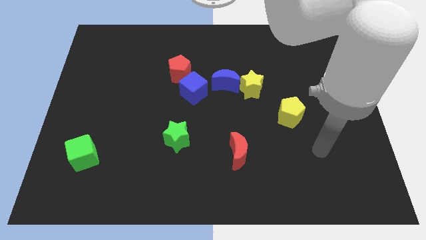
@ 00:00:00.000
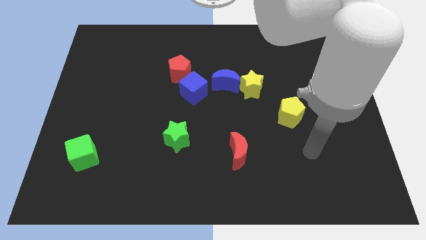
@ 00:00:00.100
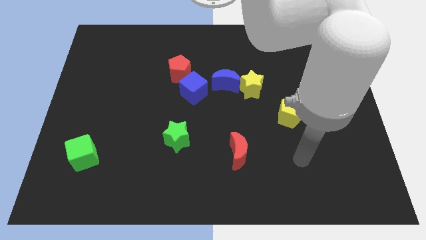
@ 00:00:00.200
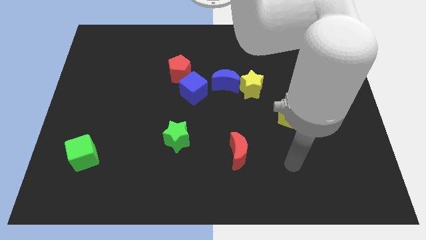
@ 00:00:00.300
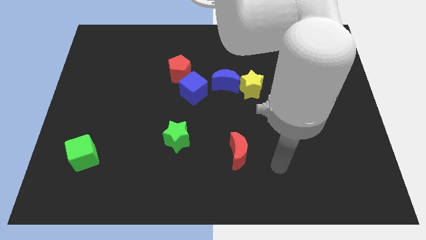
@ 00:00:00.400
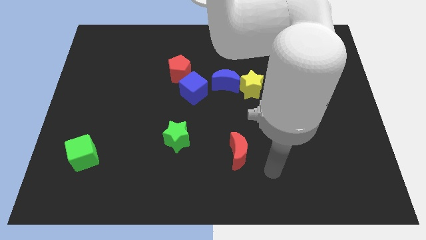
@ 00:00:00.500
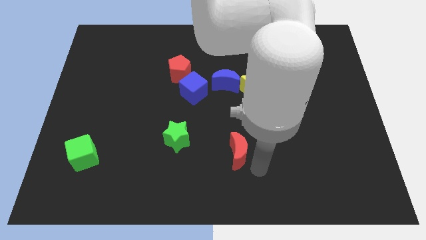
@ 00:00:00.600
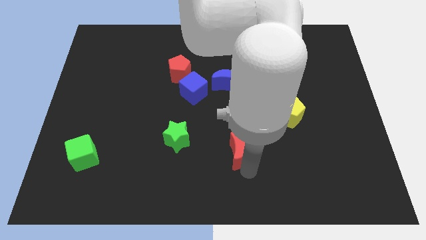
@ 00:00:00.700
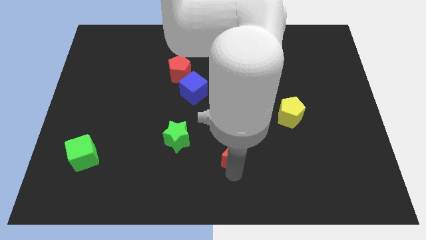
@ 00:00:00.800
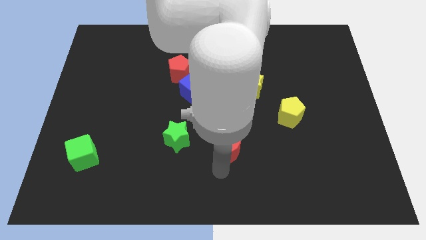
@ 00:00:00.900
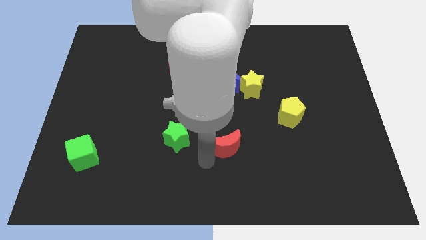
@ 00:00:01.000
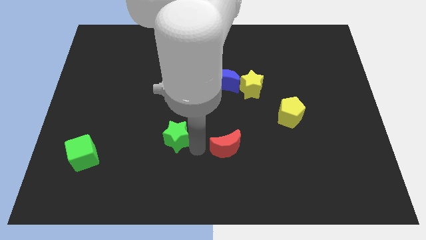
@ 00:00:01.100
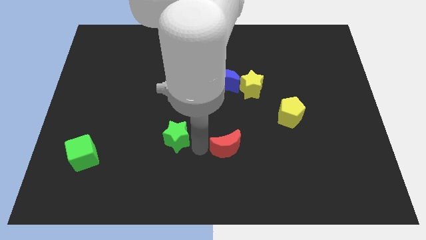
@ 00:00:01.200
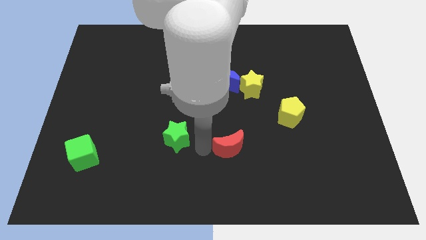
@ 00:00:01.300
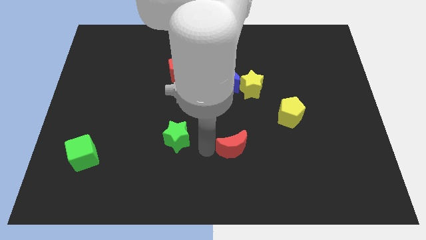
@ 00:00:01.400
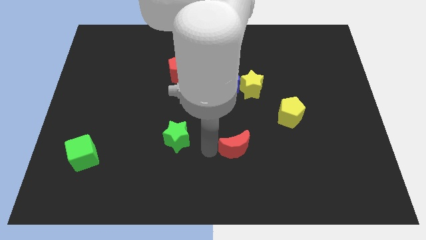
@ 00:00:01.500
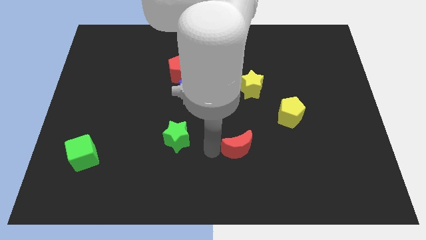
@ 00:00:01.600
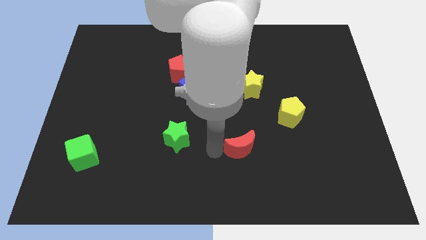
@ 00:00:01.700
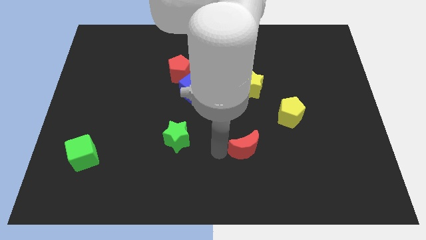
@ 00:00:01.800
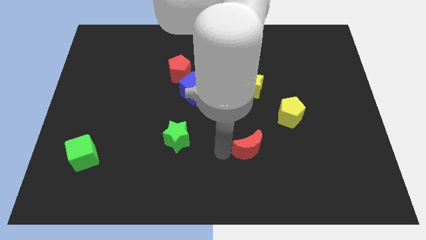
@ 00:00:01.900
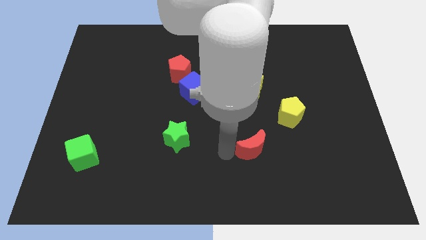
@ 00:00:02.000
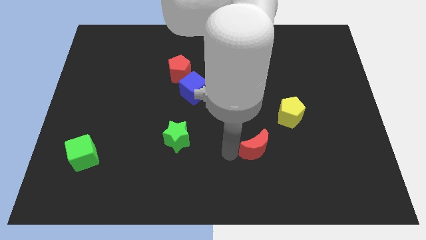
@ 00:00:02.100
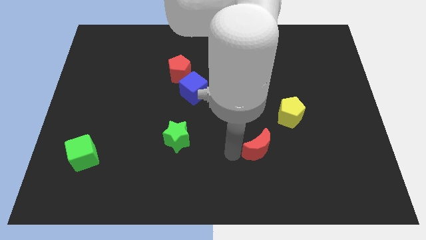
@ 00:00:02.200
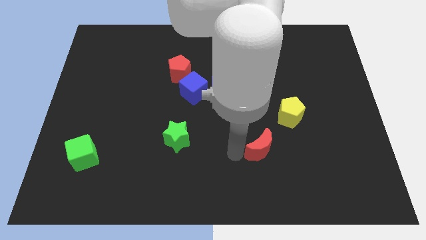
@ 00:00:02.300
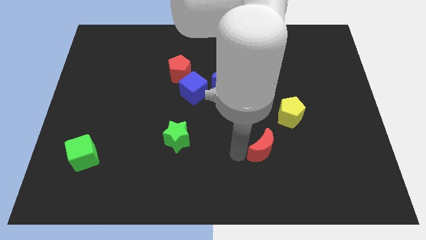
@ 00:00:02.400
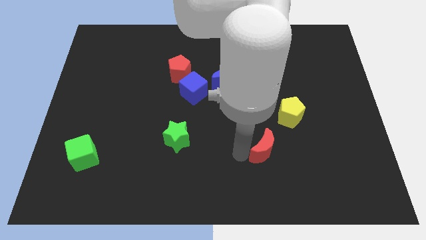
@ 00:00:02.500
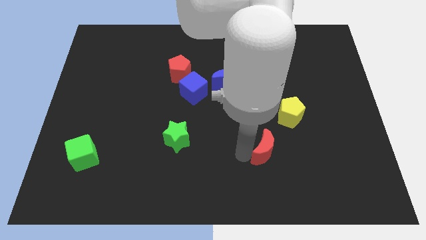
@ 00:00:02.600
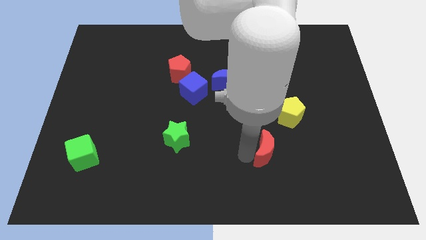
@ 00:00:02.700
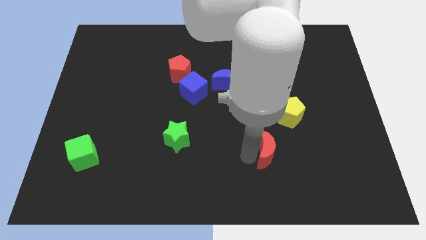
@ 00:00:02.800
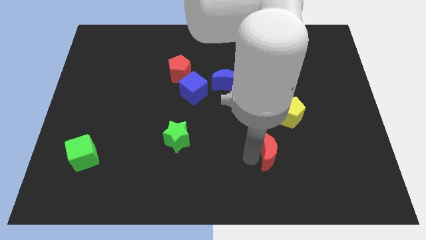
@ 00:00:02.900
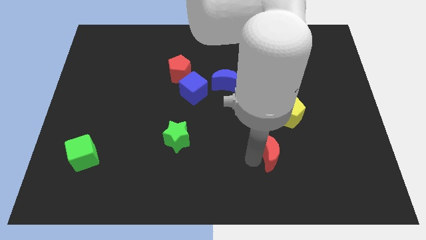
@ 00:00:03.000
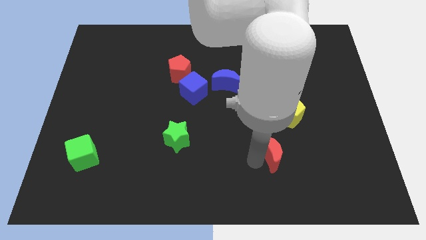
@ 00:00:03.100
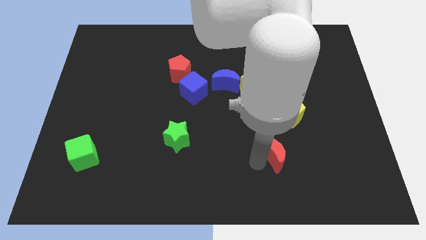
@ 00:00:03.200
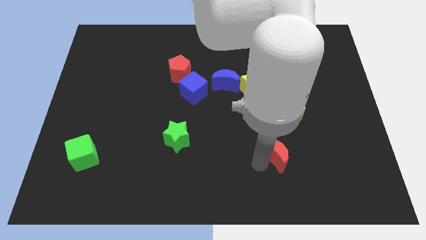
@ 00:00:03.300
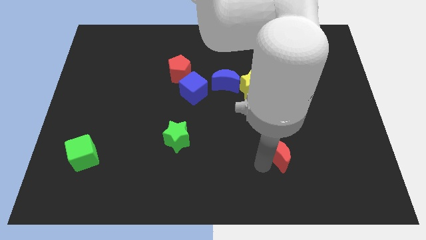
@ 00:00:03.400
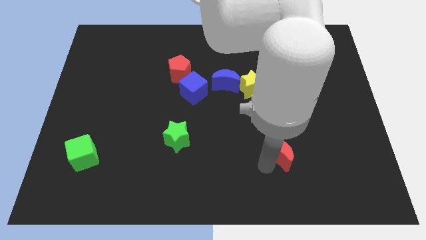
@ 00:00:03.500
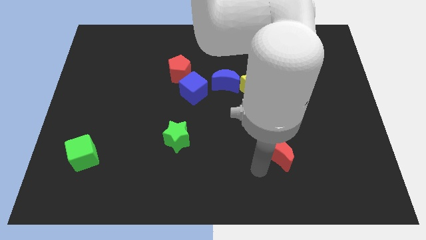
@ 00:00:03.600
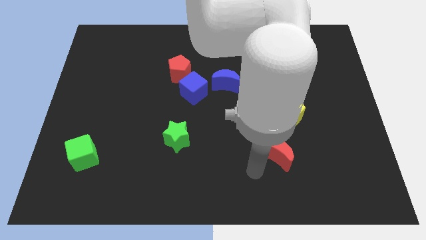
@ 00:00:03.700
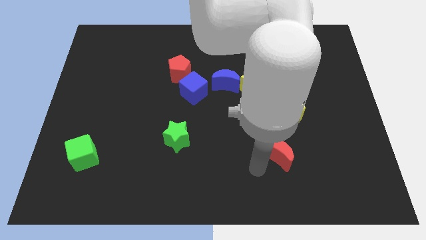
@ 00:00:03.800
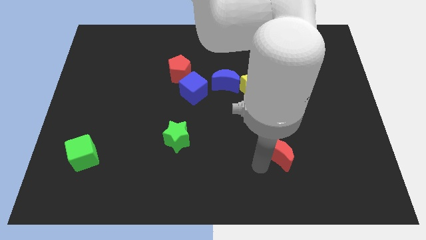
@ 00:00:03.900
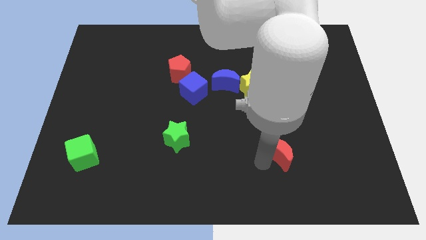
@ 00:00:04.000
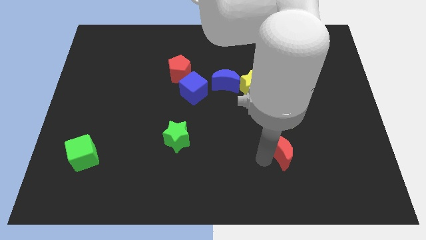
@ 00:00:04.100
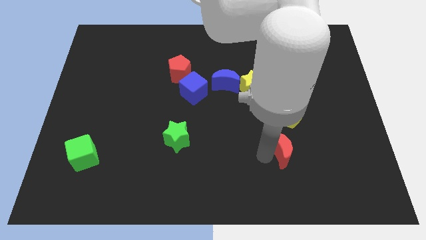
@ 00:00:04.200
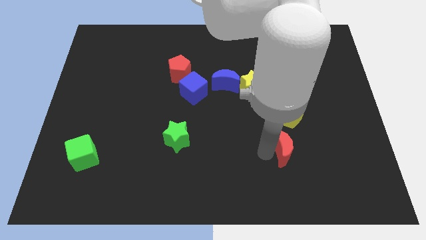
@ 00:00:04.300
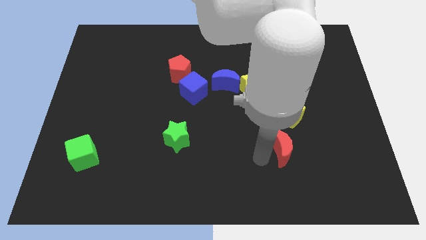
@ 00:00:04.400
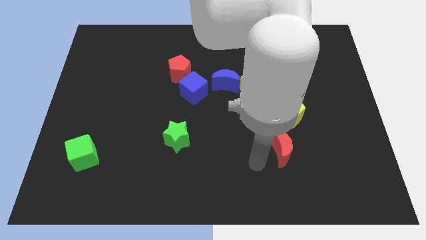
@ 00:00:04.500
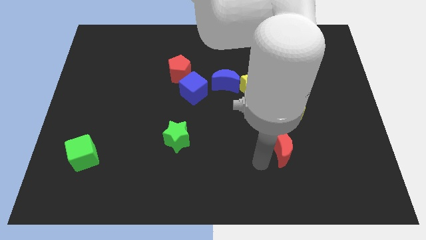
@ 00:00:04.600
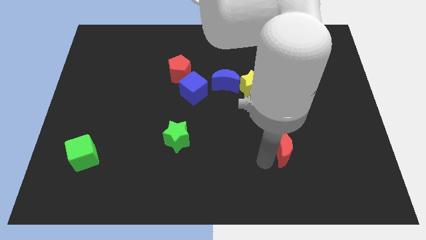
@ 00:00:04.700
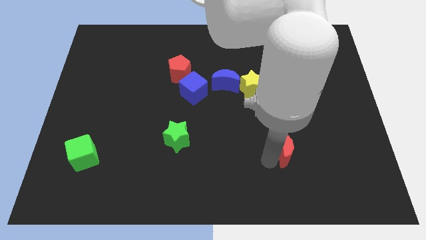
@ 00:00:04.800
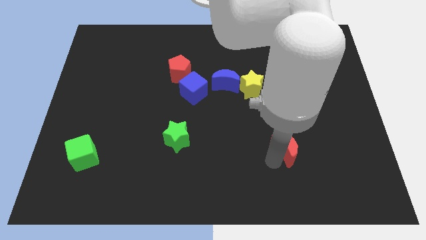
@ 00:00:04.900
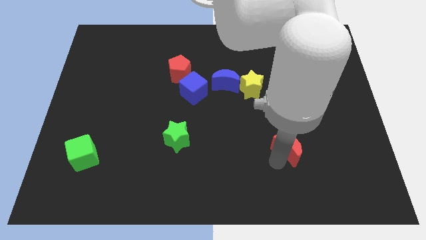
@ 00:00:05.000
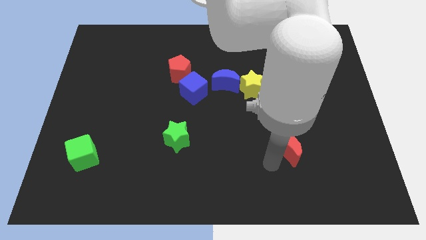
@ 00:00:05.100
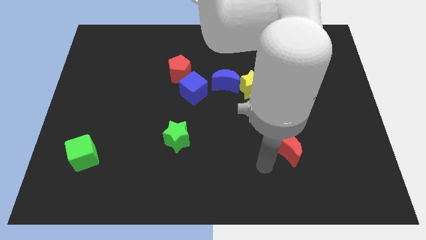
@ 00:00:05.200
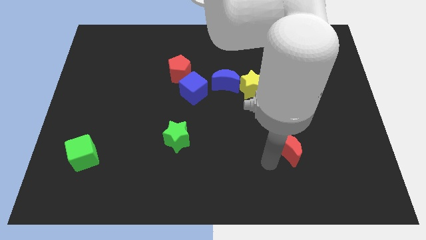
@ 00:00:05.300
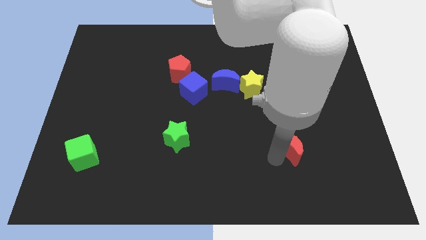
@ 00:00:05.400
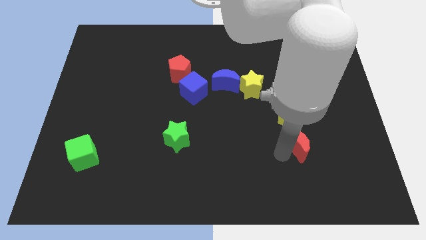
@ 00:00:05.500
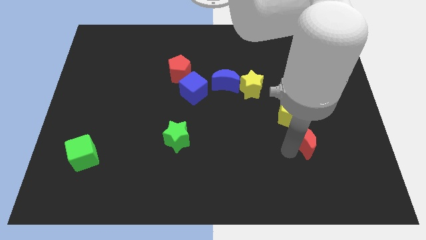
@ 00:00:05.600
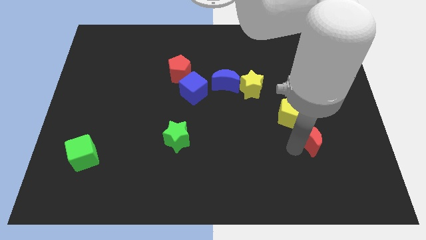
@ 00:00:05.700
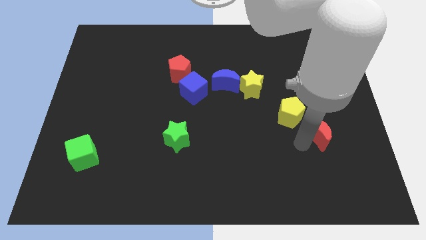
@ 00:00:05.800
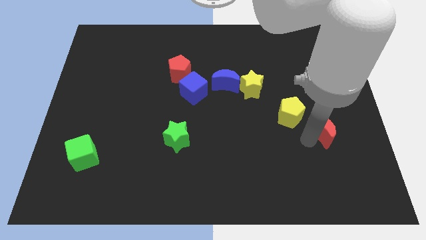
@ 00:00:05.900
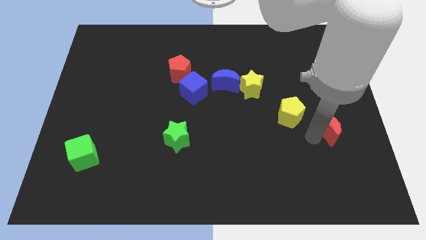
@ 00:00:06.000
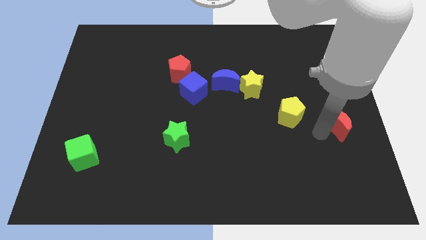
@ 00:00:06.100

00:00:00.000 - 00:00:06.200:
slide the red moon to the center right

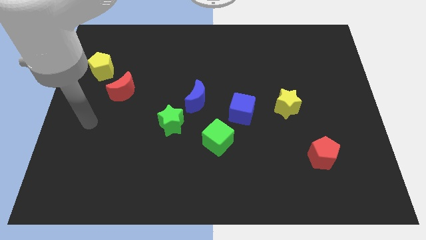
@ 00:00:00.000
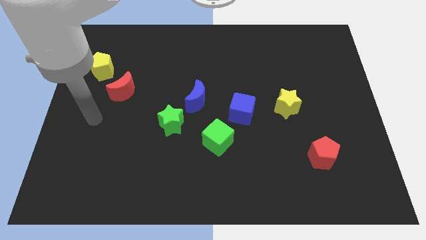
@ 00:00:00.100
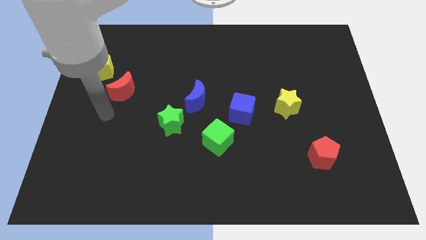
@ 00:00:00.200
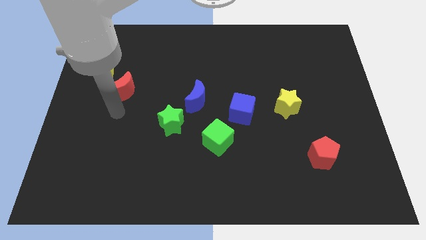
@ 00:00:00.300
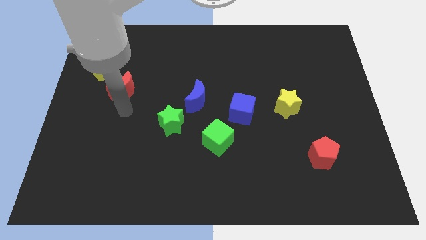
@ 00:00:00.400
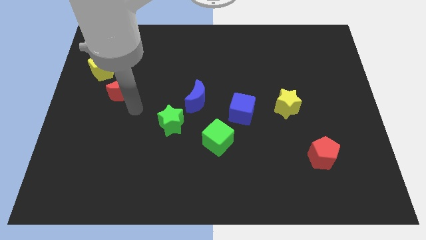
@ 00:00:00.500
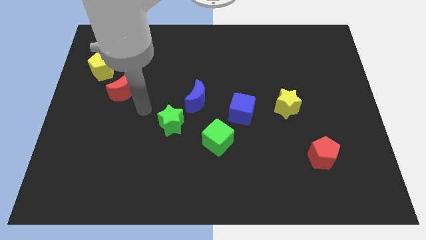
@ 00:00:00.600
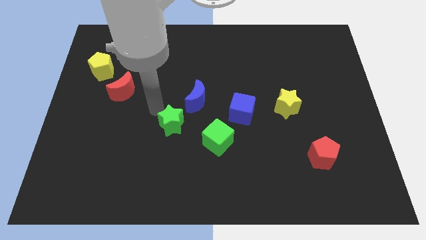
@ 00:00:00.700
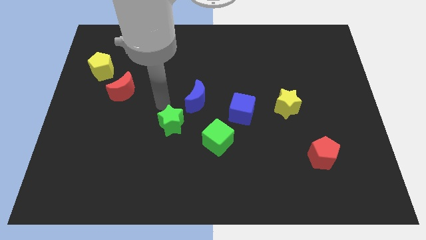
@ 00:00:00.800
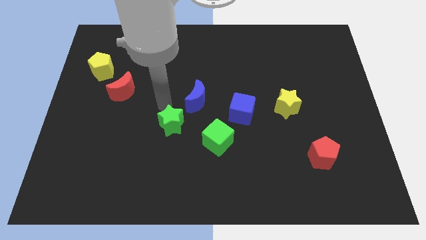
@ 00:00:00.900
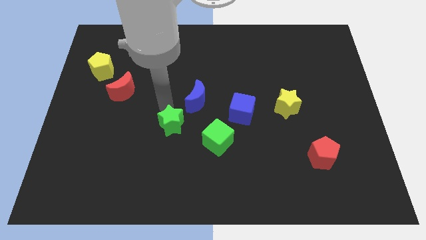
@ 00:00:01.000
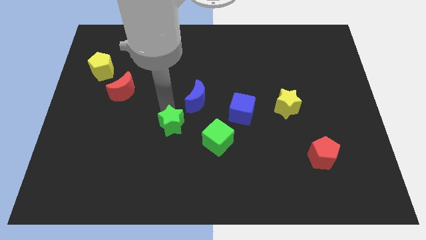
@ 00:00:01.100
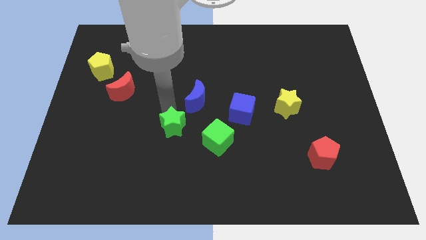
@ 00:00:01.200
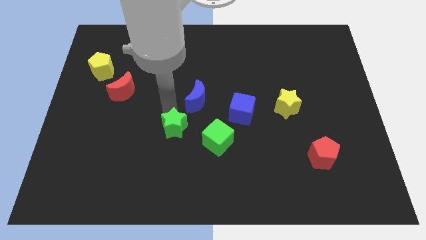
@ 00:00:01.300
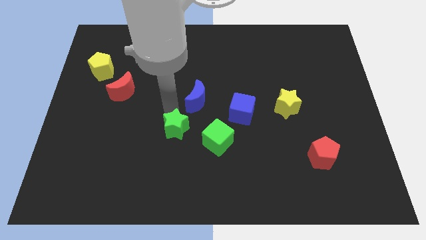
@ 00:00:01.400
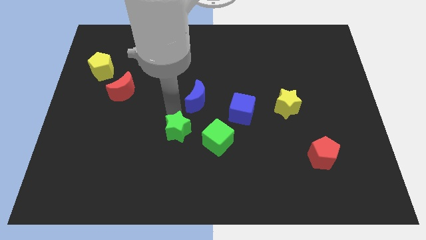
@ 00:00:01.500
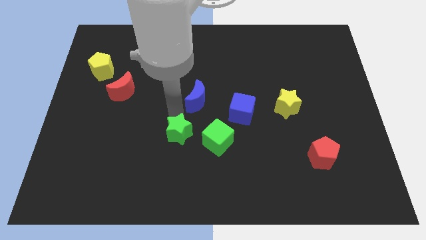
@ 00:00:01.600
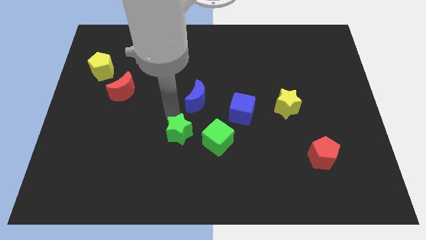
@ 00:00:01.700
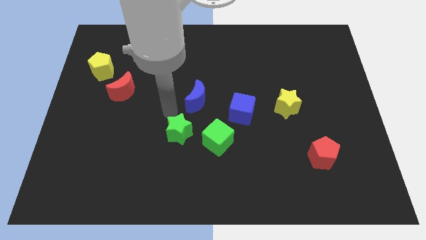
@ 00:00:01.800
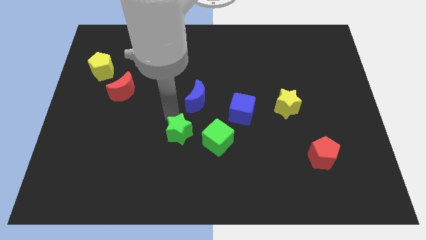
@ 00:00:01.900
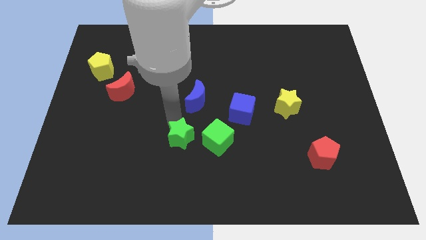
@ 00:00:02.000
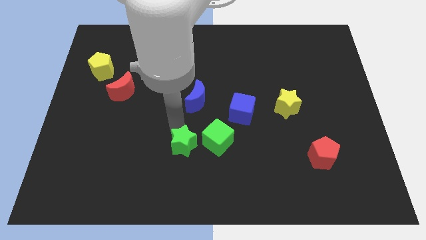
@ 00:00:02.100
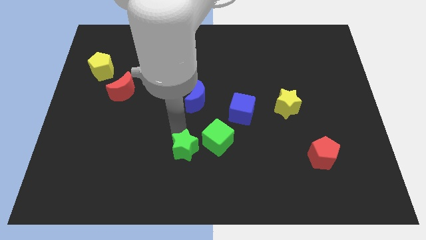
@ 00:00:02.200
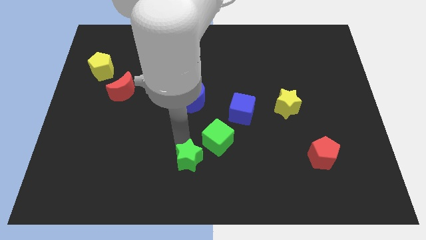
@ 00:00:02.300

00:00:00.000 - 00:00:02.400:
move the green star to the bottom side
